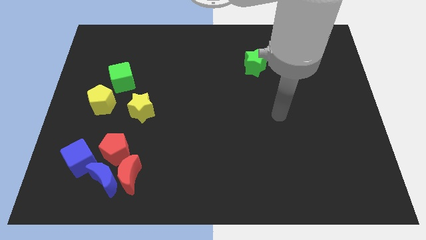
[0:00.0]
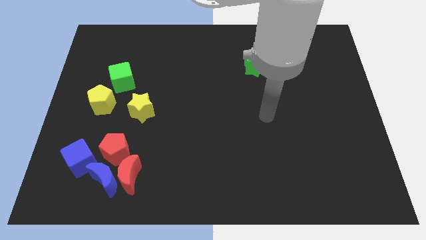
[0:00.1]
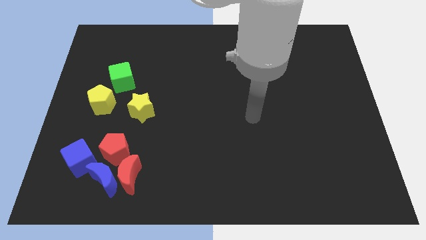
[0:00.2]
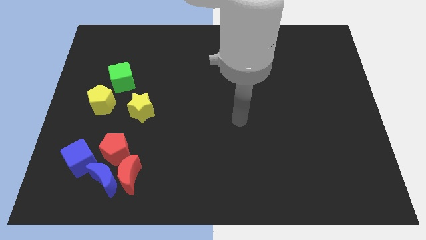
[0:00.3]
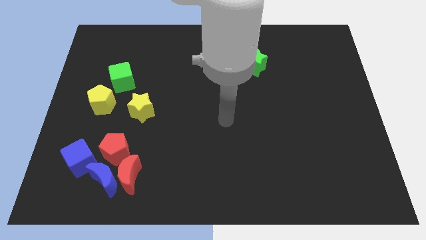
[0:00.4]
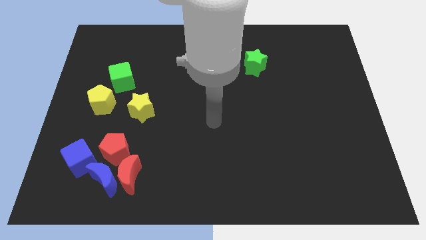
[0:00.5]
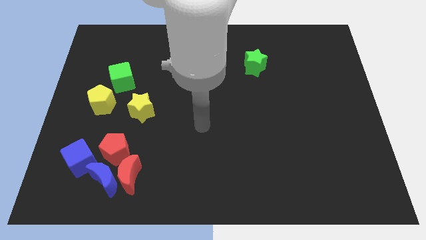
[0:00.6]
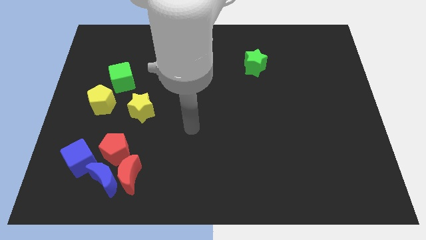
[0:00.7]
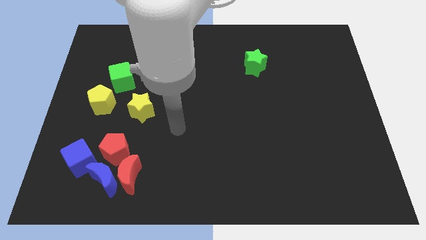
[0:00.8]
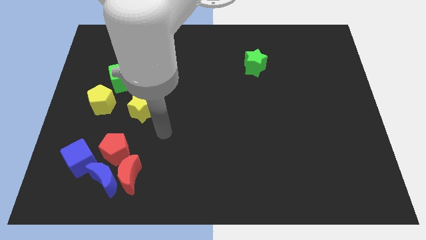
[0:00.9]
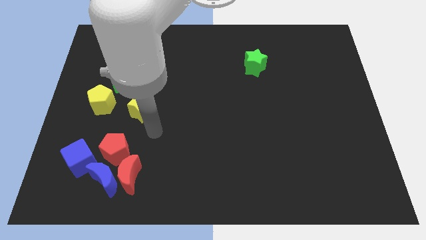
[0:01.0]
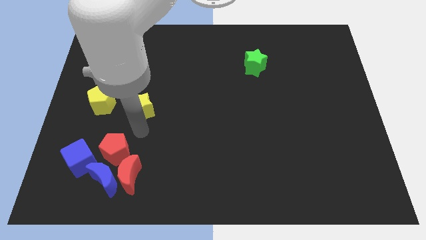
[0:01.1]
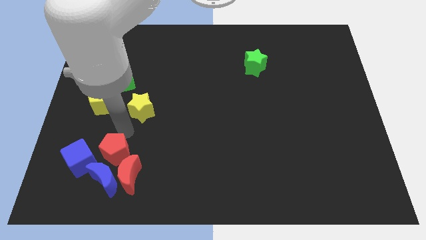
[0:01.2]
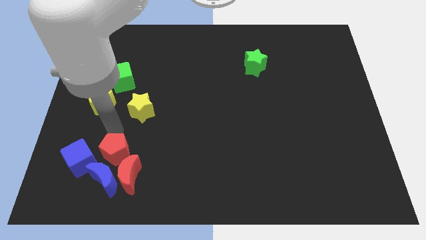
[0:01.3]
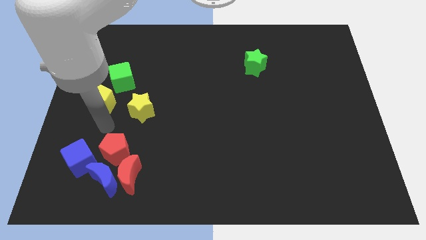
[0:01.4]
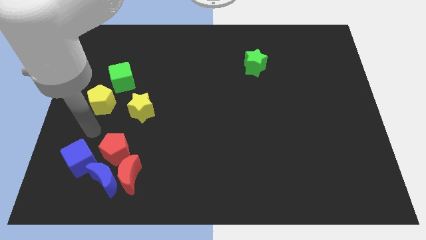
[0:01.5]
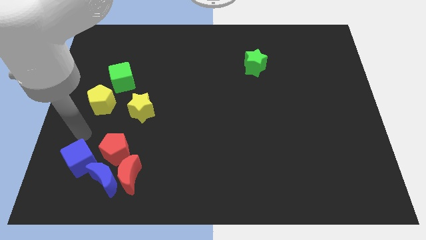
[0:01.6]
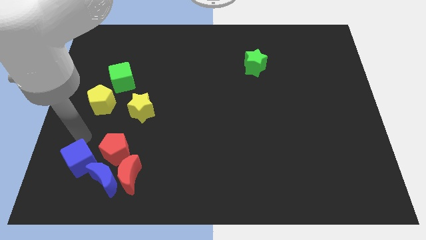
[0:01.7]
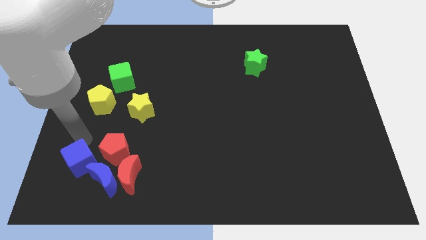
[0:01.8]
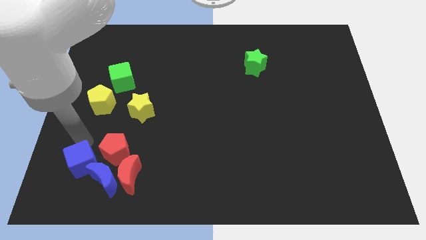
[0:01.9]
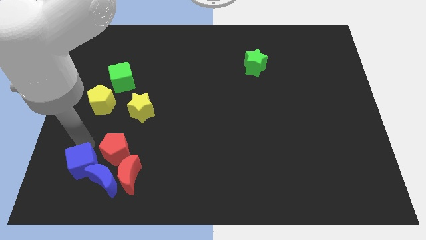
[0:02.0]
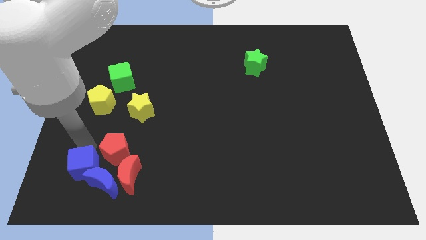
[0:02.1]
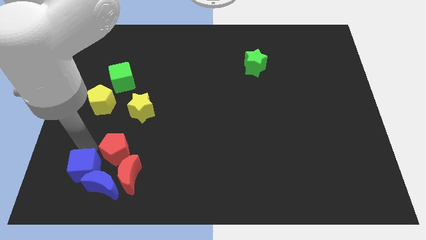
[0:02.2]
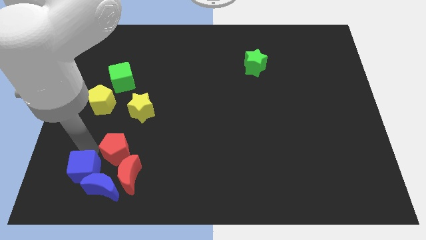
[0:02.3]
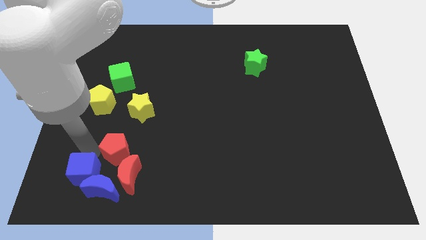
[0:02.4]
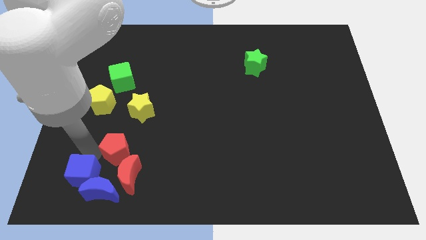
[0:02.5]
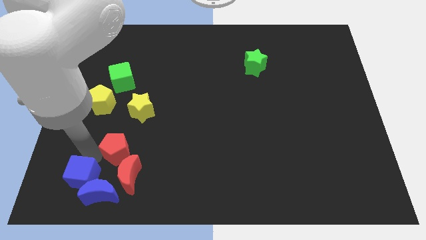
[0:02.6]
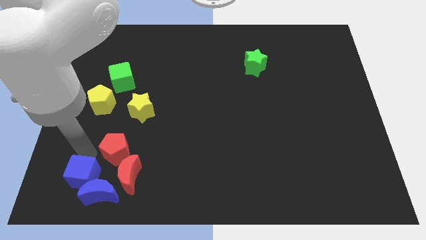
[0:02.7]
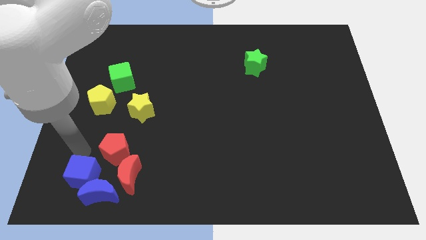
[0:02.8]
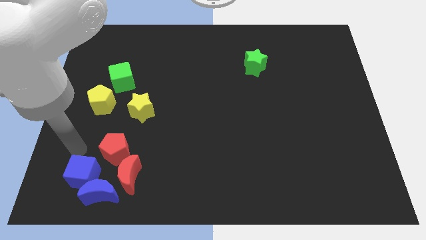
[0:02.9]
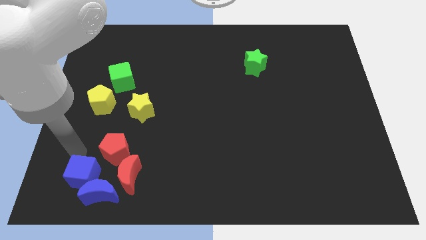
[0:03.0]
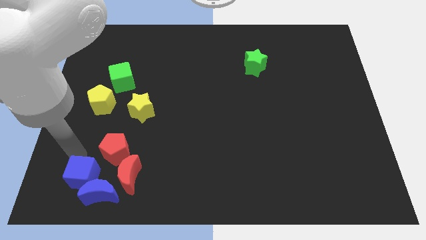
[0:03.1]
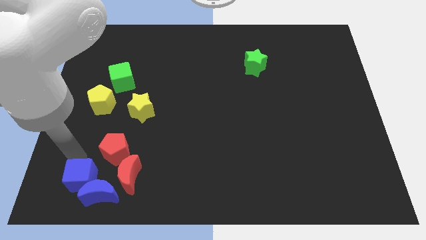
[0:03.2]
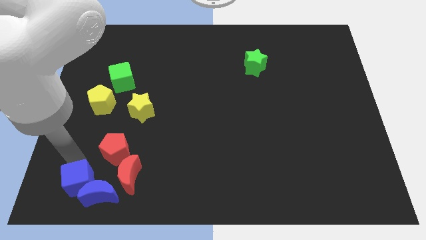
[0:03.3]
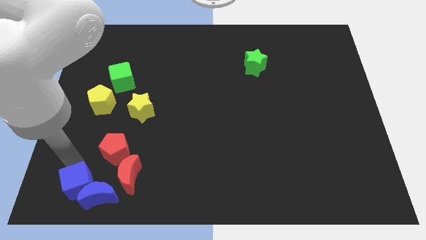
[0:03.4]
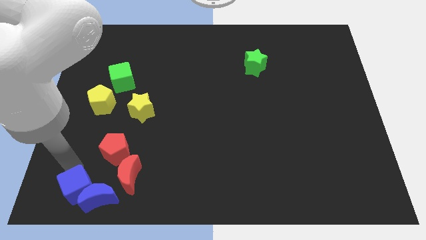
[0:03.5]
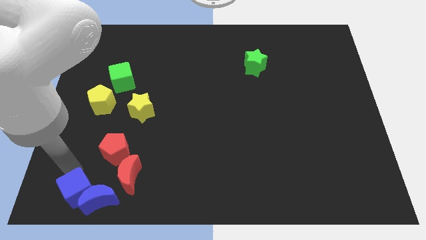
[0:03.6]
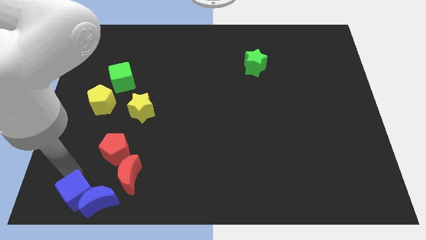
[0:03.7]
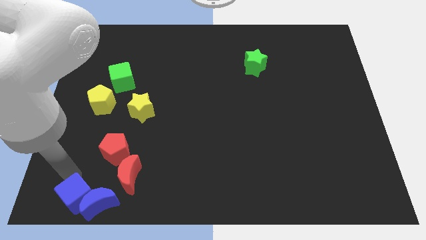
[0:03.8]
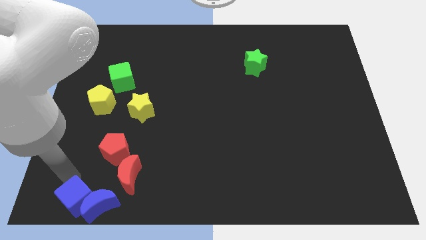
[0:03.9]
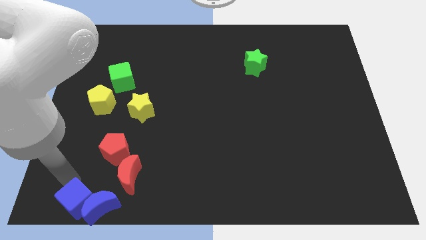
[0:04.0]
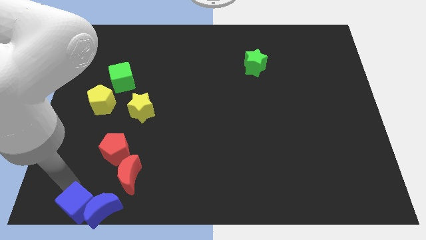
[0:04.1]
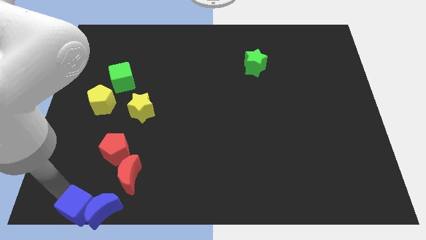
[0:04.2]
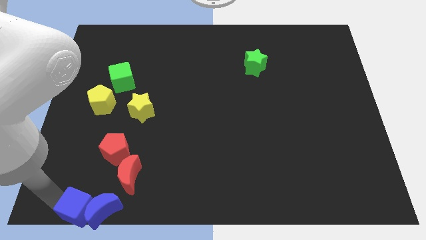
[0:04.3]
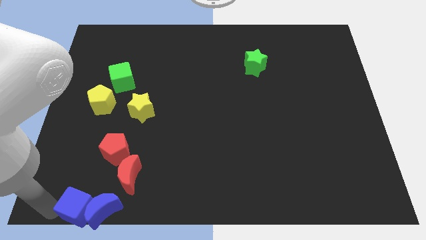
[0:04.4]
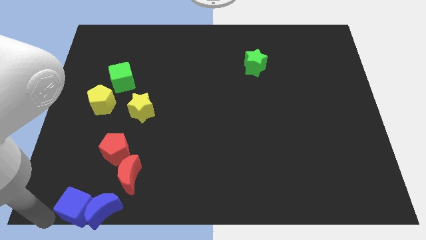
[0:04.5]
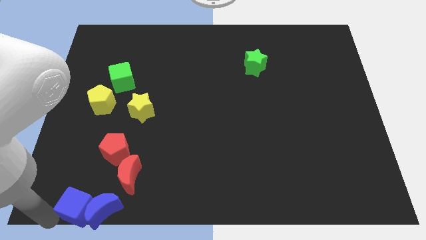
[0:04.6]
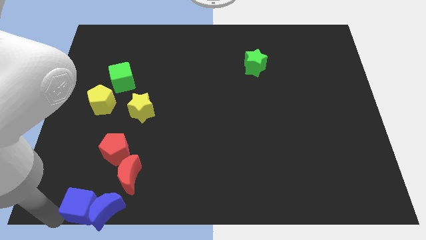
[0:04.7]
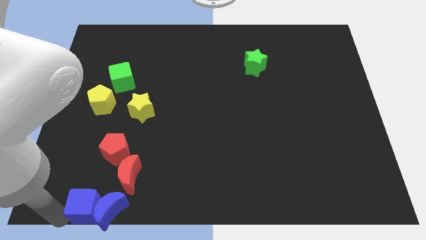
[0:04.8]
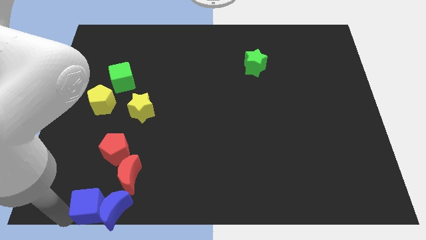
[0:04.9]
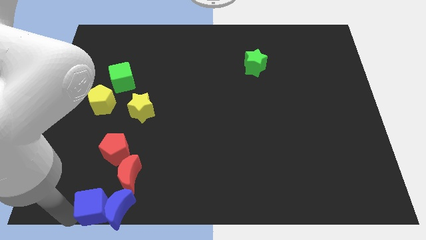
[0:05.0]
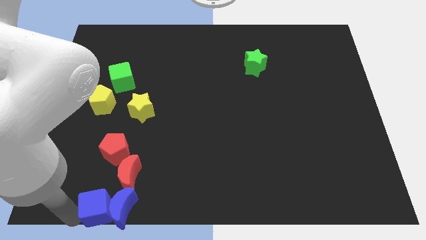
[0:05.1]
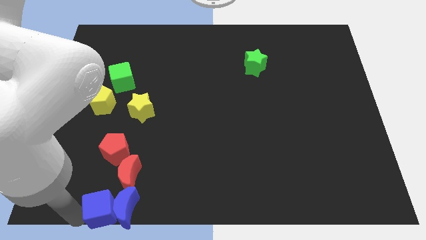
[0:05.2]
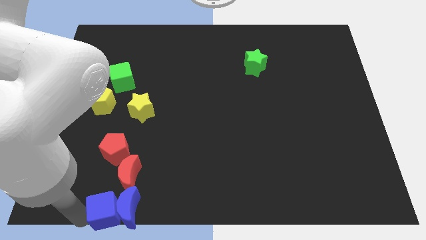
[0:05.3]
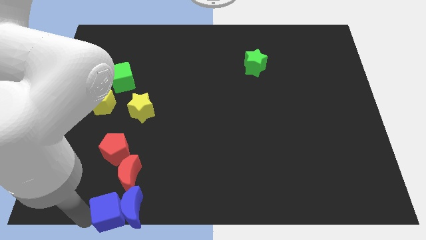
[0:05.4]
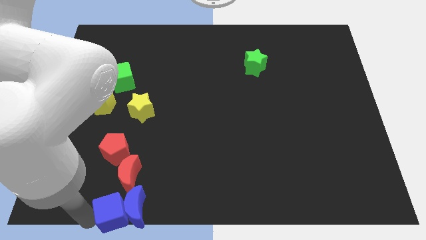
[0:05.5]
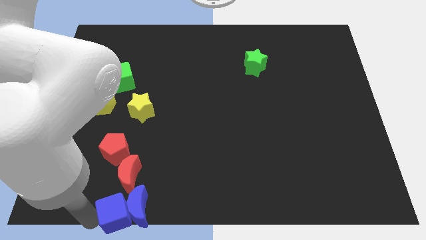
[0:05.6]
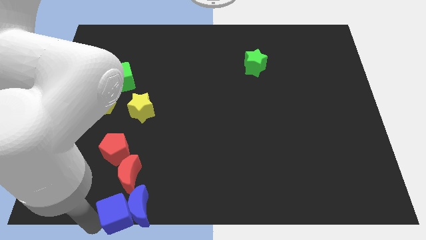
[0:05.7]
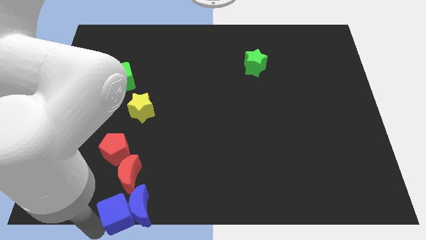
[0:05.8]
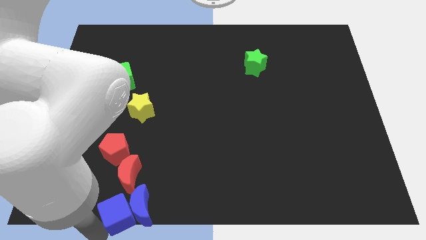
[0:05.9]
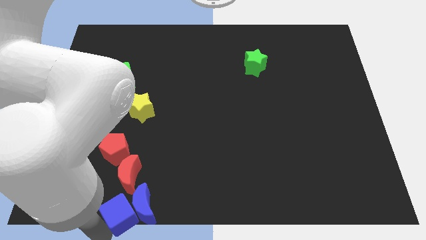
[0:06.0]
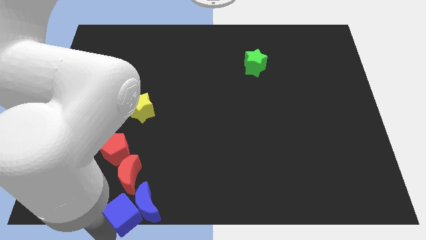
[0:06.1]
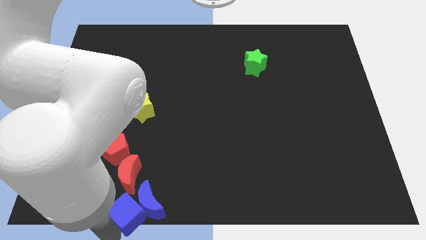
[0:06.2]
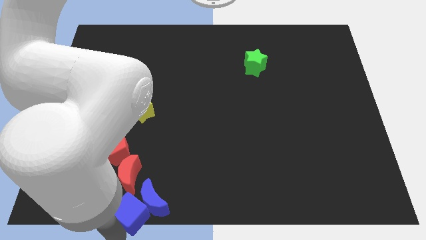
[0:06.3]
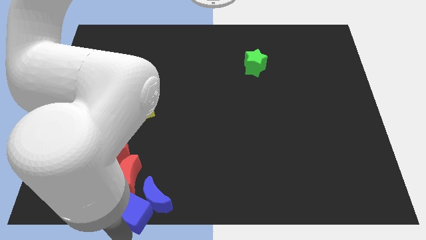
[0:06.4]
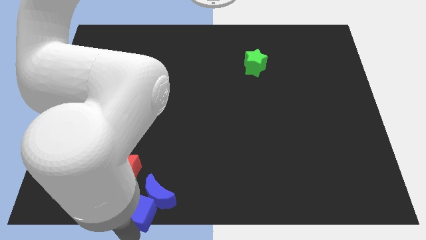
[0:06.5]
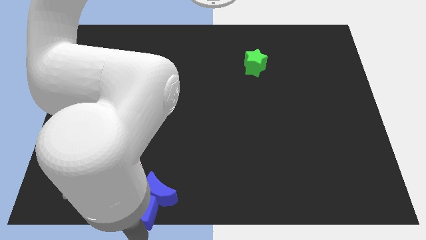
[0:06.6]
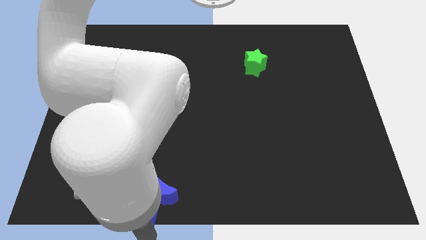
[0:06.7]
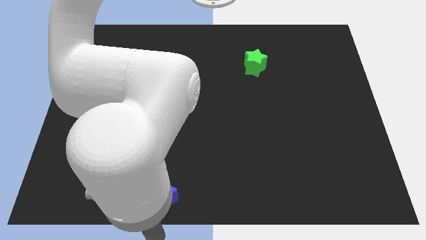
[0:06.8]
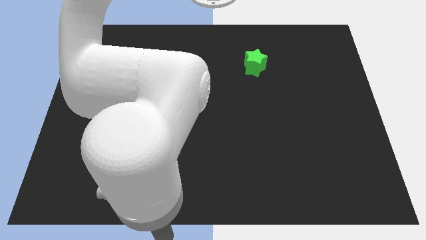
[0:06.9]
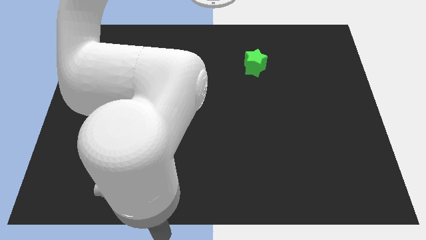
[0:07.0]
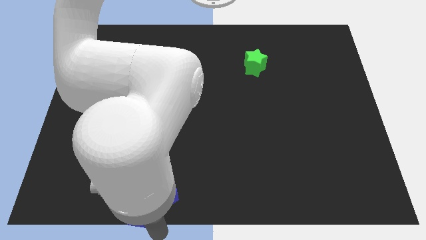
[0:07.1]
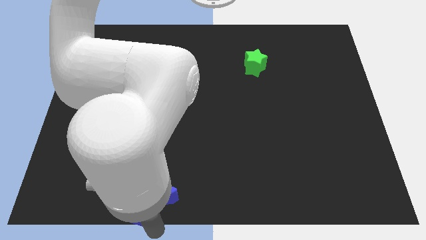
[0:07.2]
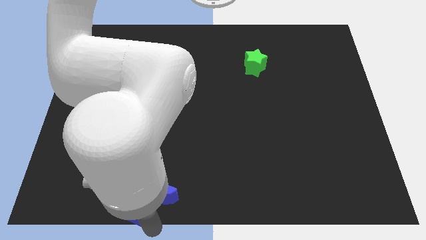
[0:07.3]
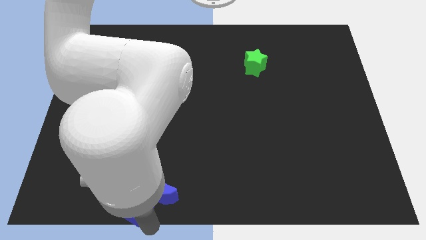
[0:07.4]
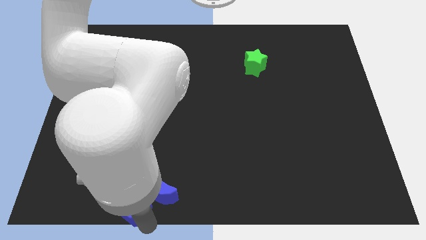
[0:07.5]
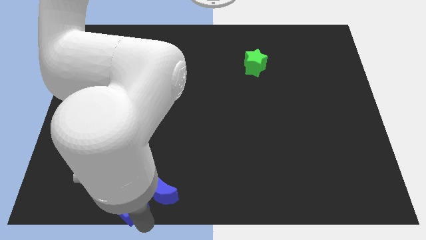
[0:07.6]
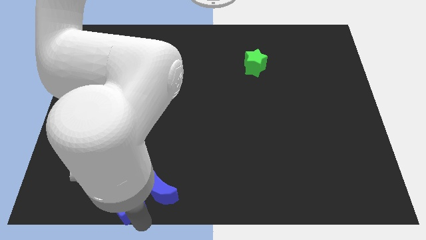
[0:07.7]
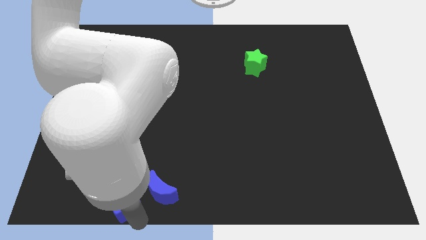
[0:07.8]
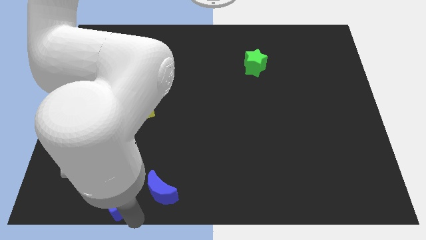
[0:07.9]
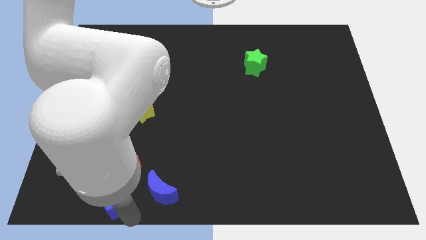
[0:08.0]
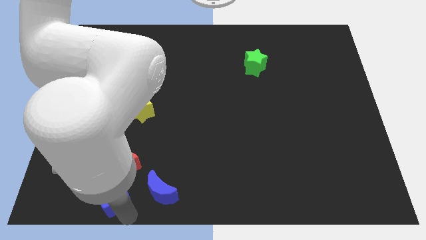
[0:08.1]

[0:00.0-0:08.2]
slide the blue cube next to the red moon
